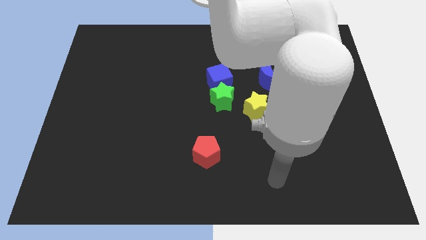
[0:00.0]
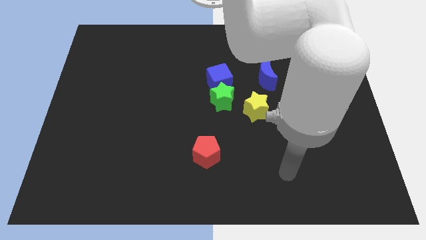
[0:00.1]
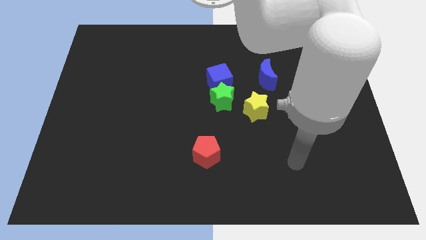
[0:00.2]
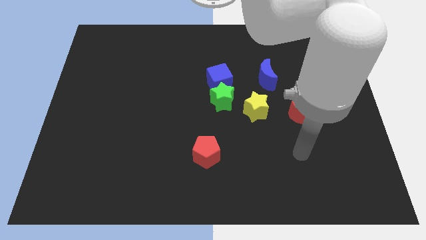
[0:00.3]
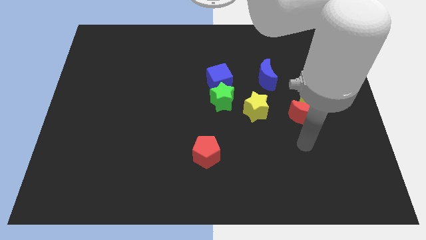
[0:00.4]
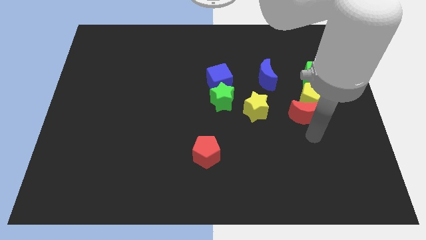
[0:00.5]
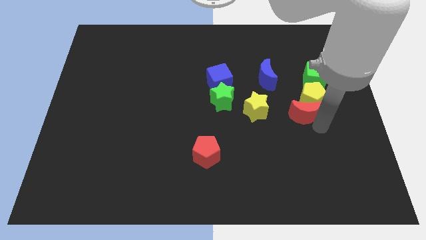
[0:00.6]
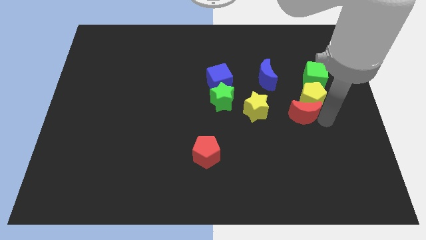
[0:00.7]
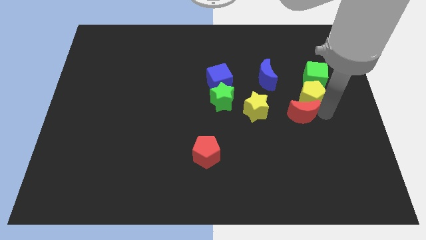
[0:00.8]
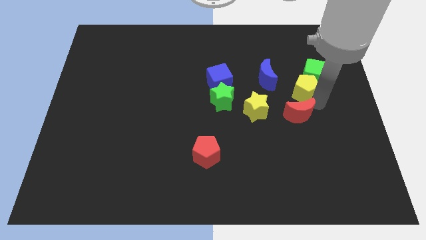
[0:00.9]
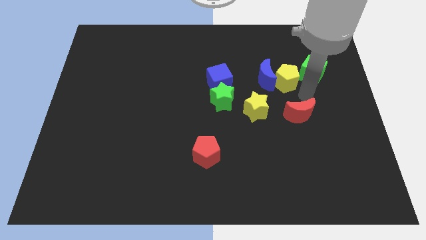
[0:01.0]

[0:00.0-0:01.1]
pull the red moon apart from the yellow pentagon

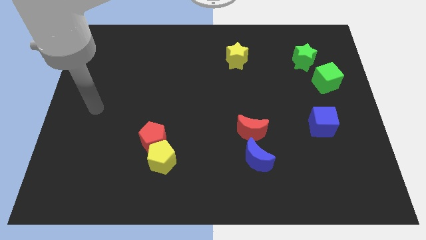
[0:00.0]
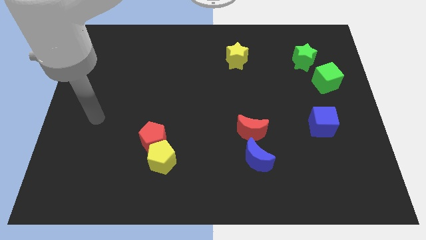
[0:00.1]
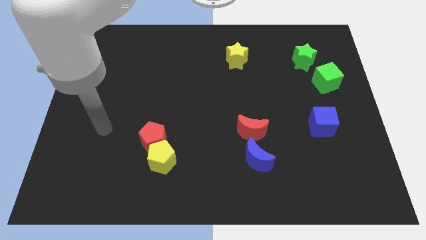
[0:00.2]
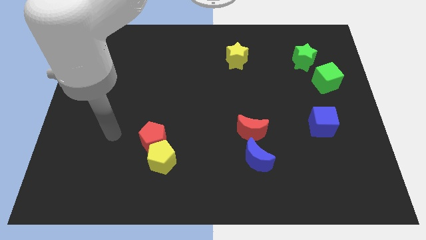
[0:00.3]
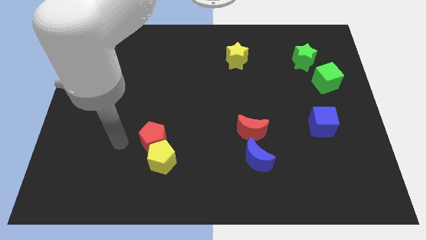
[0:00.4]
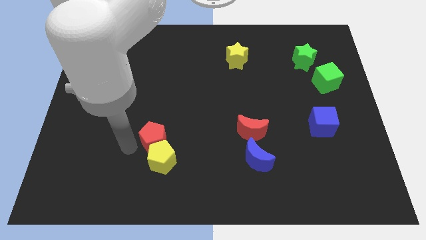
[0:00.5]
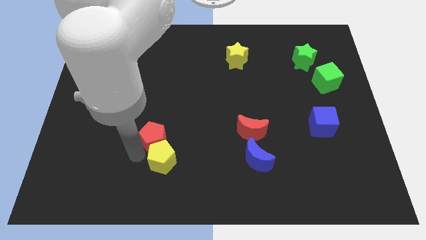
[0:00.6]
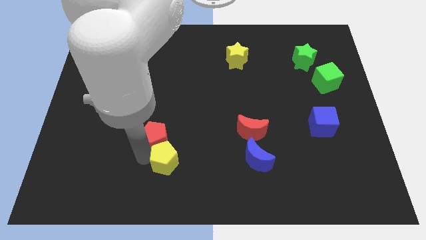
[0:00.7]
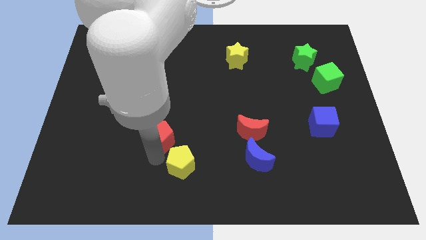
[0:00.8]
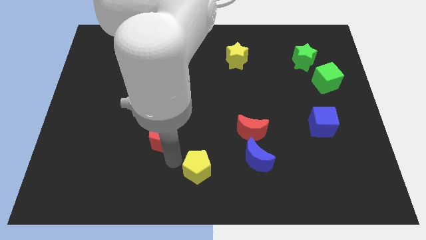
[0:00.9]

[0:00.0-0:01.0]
move the red pentagon away from the yellow pentagon

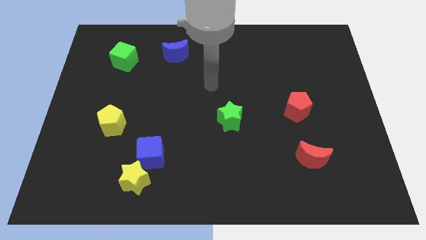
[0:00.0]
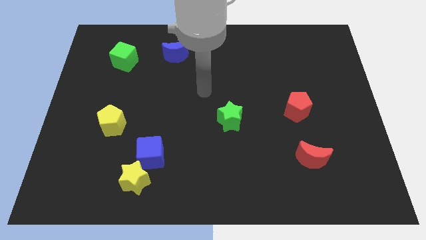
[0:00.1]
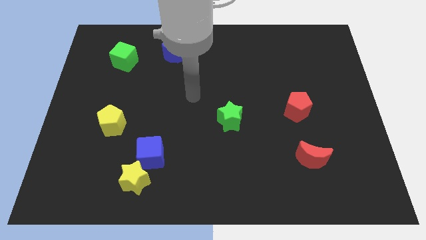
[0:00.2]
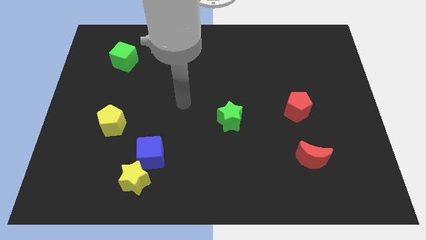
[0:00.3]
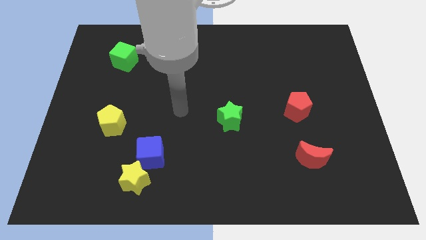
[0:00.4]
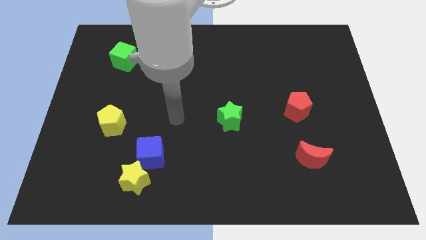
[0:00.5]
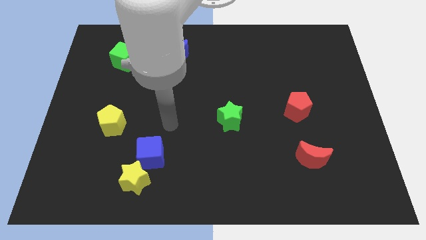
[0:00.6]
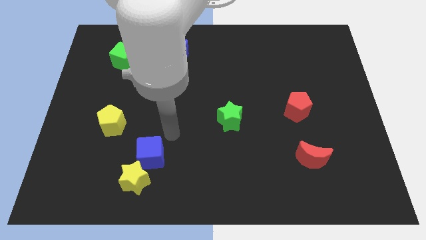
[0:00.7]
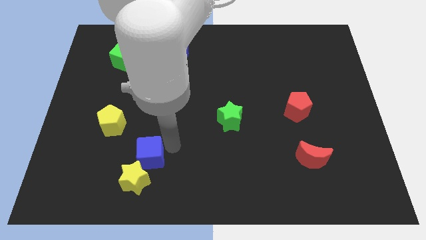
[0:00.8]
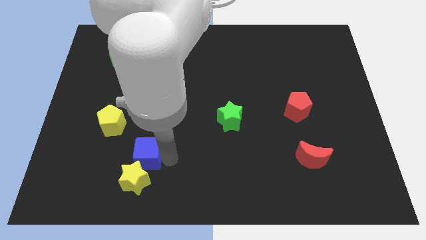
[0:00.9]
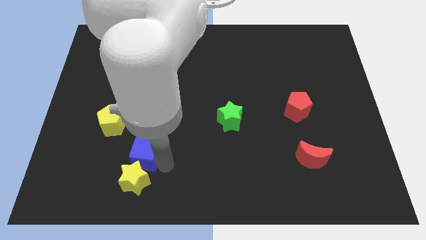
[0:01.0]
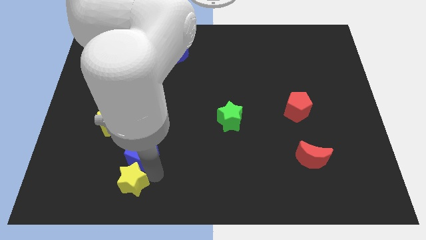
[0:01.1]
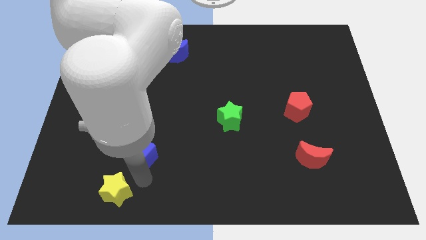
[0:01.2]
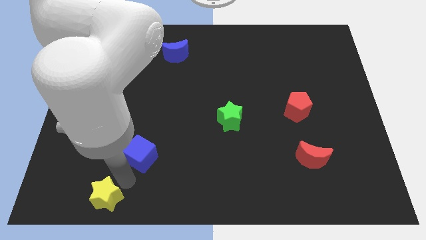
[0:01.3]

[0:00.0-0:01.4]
pull the blue cube apart from the yellow star

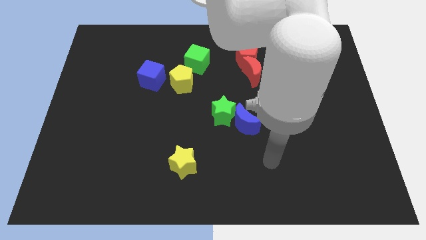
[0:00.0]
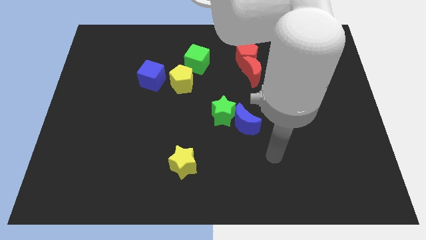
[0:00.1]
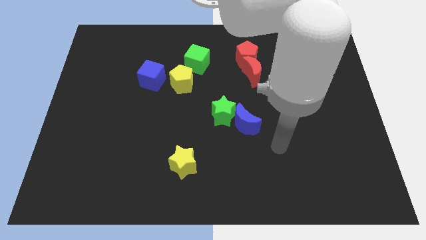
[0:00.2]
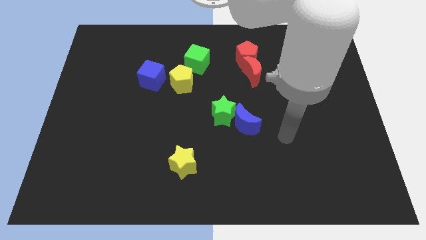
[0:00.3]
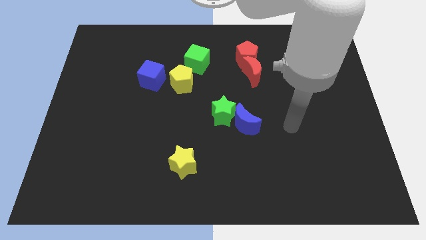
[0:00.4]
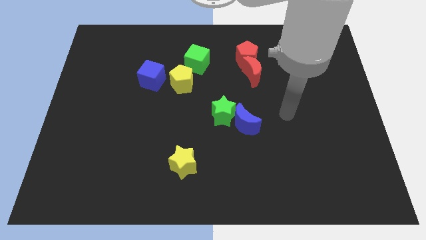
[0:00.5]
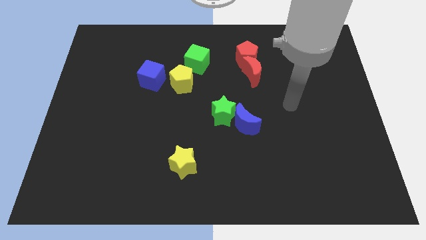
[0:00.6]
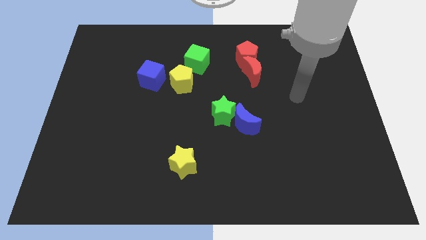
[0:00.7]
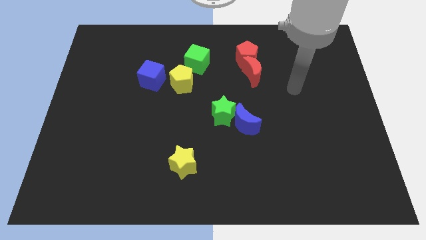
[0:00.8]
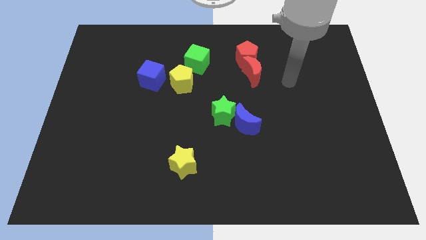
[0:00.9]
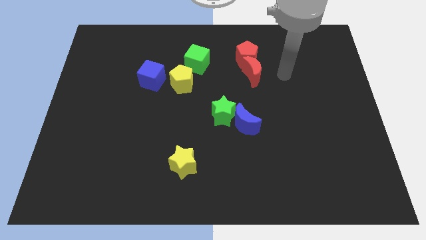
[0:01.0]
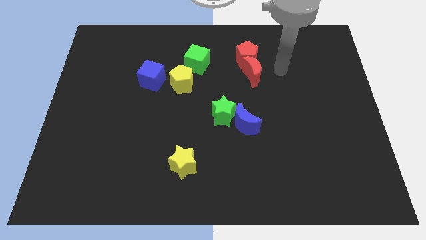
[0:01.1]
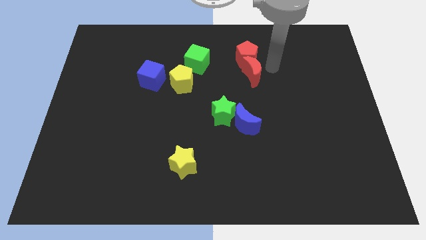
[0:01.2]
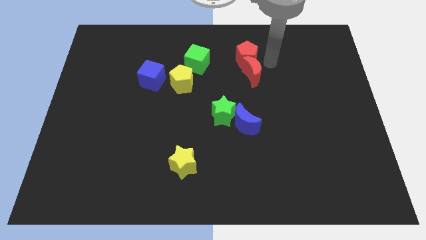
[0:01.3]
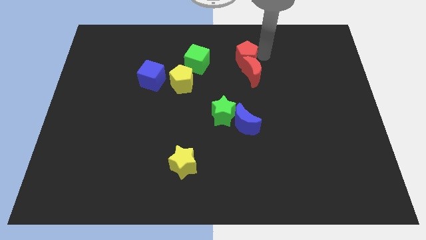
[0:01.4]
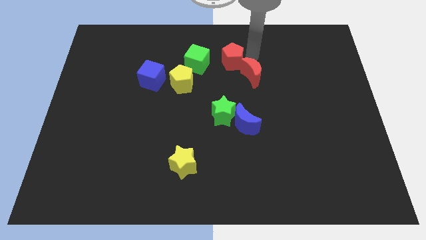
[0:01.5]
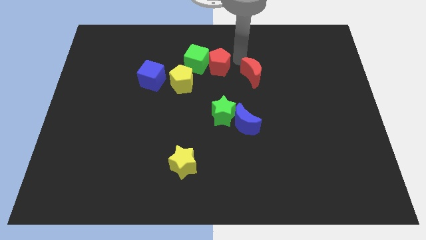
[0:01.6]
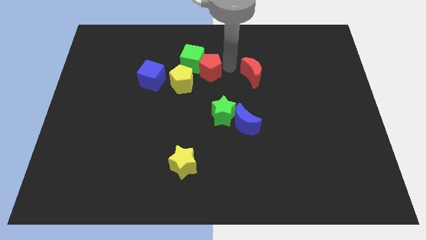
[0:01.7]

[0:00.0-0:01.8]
move the red moon away from the red pentagon

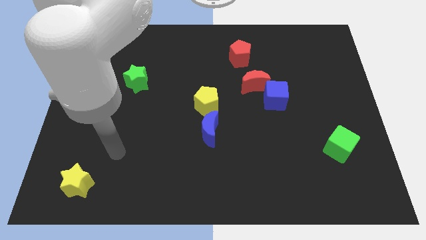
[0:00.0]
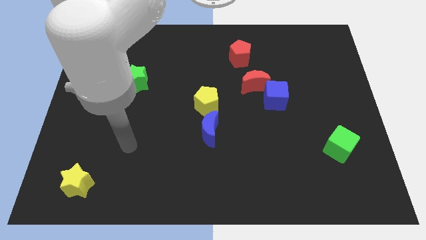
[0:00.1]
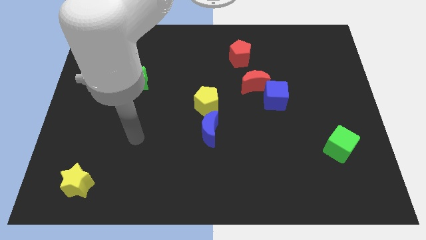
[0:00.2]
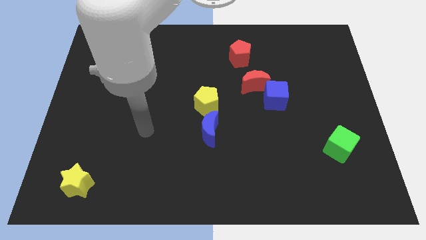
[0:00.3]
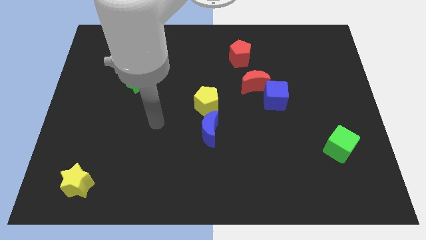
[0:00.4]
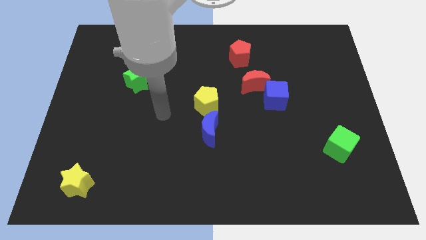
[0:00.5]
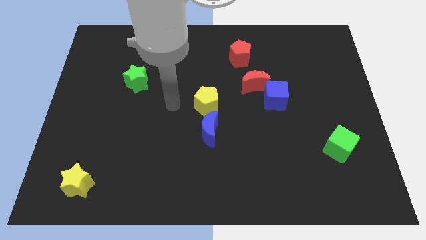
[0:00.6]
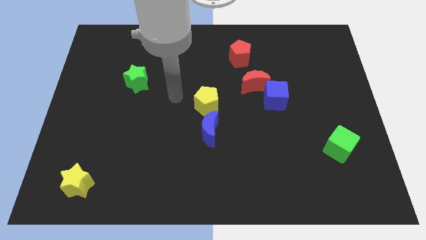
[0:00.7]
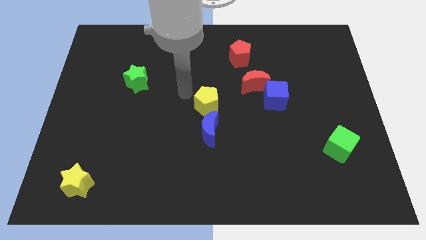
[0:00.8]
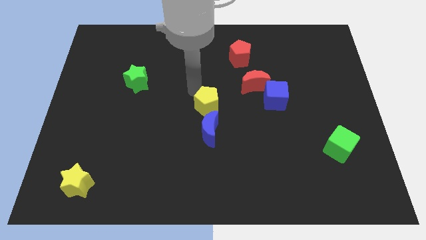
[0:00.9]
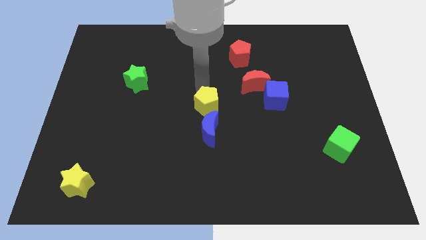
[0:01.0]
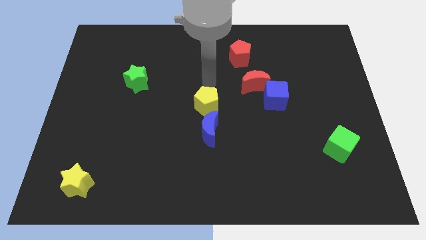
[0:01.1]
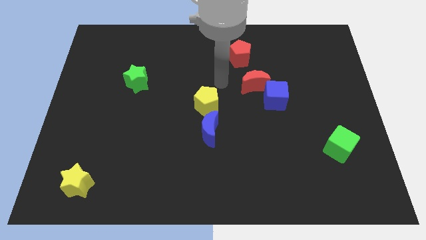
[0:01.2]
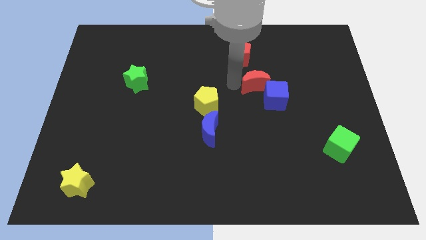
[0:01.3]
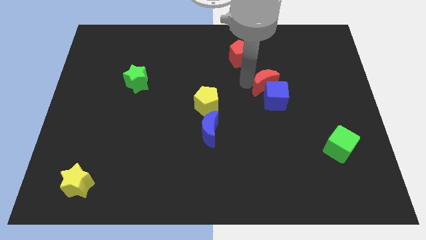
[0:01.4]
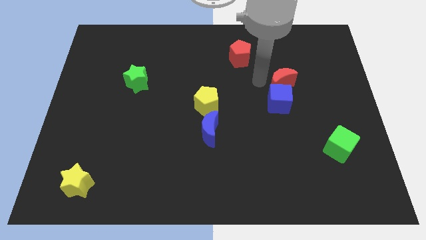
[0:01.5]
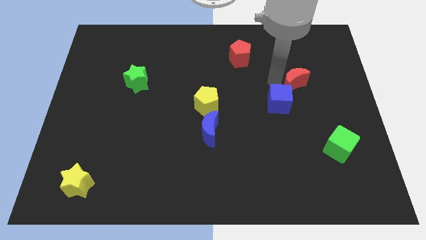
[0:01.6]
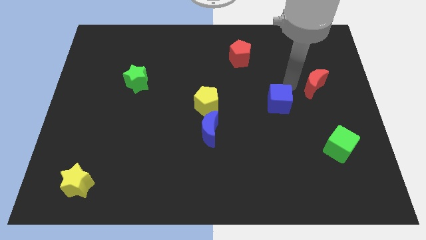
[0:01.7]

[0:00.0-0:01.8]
separate the blue cube from the red moon

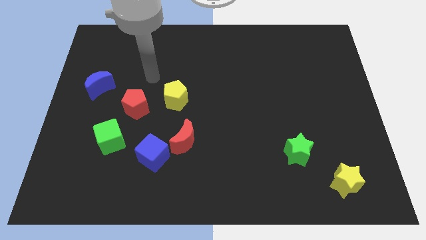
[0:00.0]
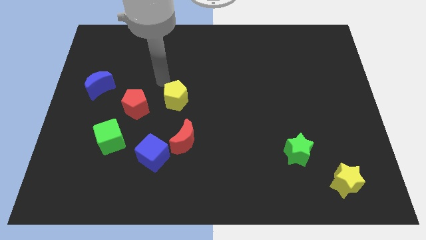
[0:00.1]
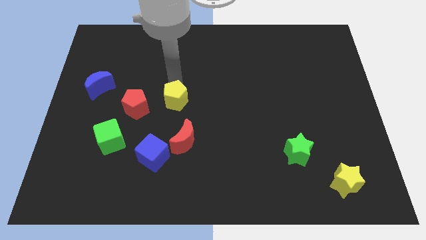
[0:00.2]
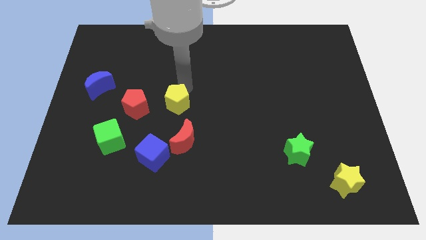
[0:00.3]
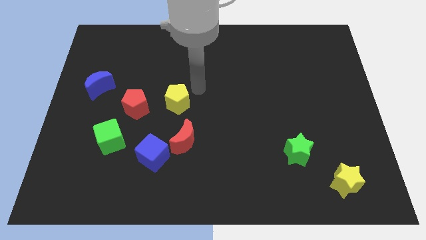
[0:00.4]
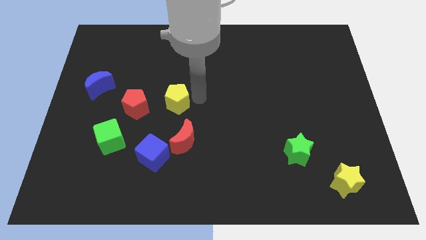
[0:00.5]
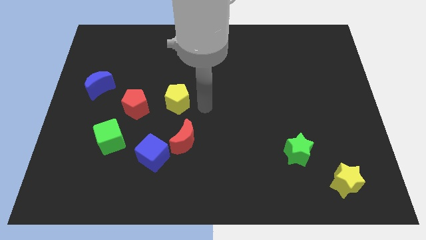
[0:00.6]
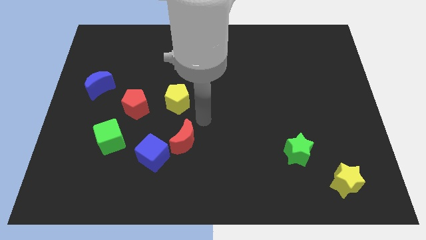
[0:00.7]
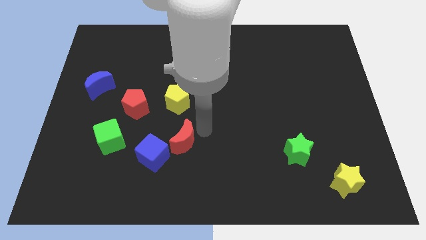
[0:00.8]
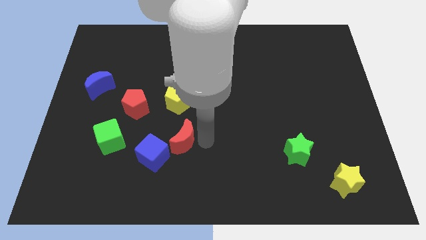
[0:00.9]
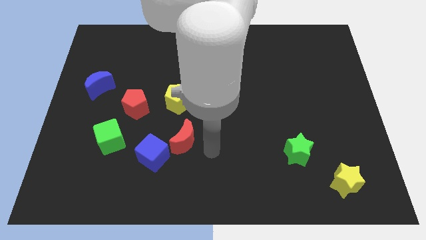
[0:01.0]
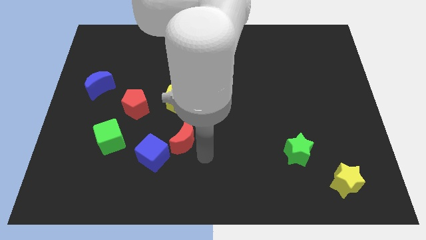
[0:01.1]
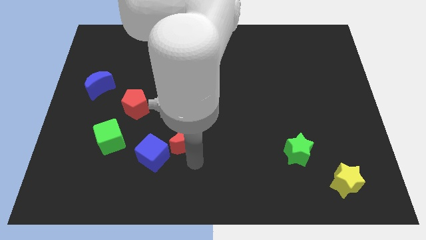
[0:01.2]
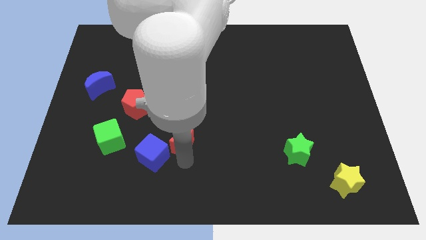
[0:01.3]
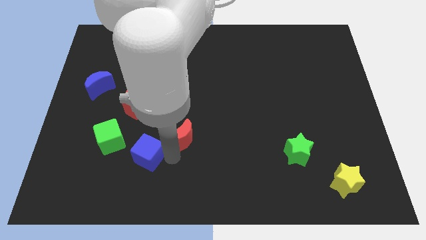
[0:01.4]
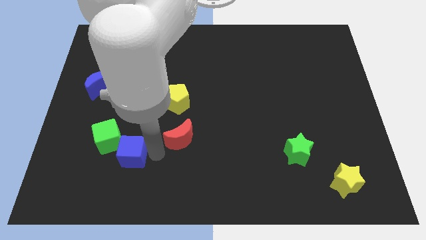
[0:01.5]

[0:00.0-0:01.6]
separate the red moon from the blue cube

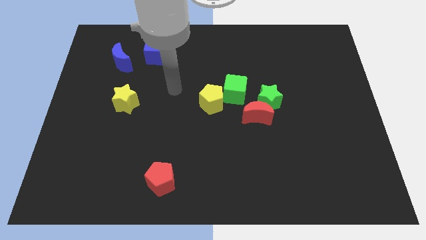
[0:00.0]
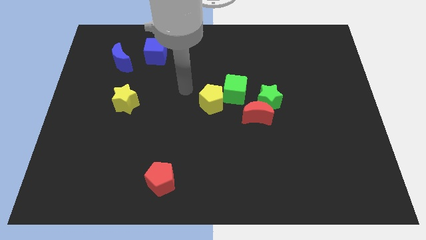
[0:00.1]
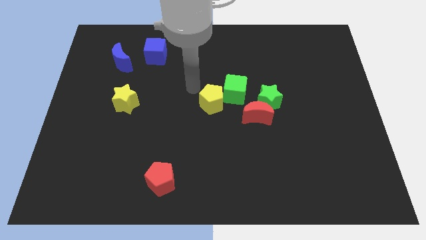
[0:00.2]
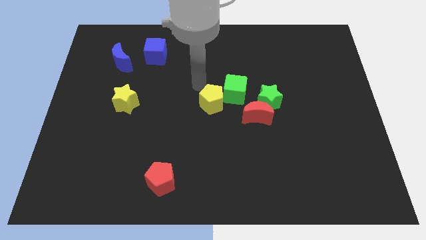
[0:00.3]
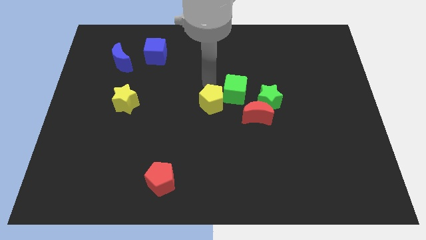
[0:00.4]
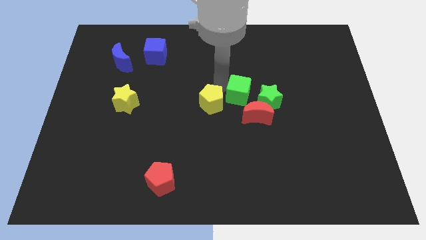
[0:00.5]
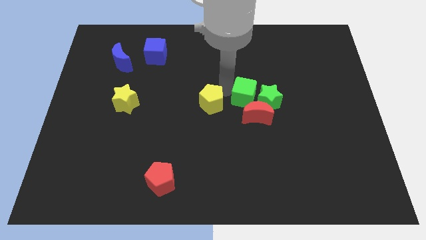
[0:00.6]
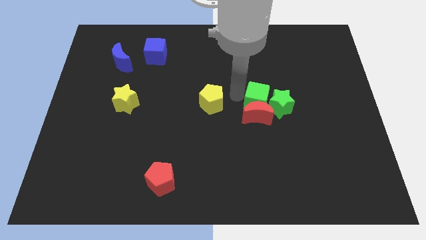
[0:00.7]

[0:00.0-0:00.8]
move the yellow pentagon away from the green cube

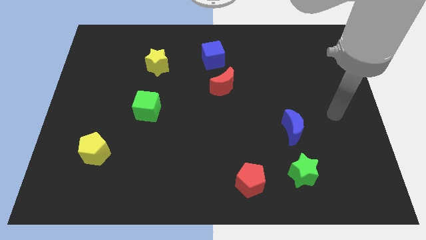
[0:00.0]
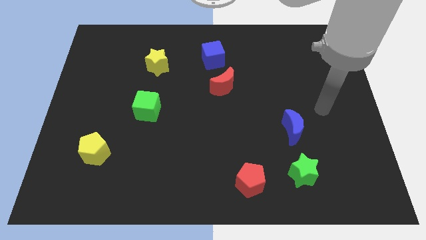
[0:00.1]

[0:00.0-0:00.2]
pull the red moon apart from the blue cube
